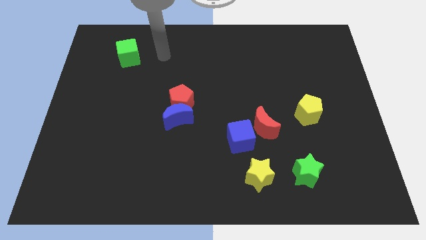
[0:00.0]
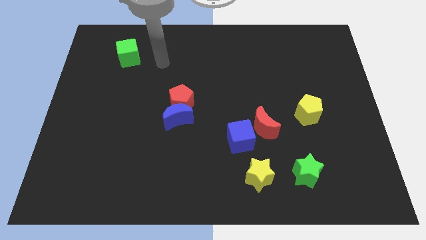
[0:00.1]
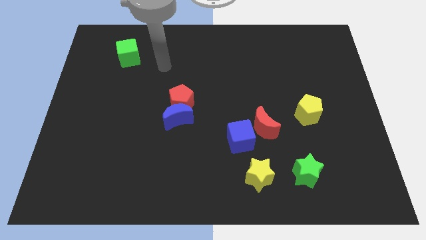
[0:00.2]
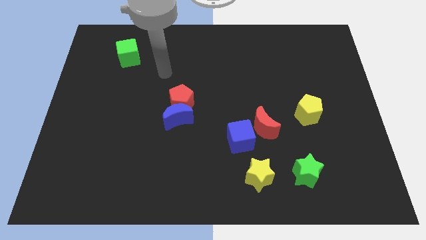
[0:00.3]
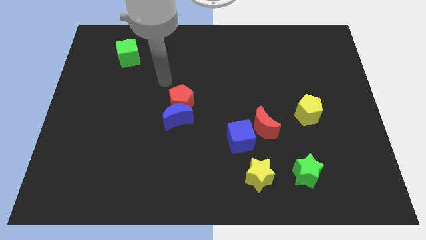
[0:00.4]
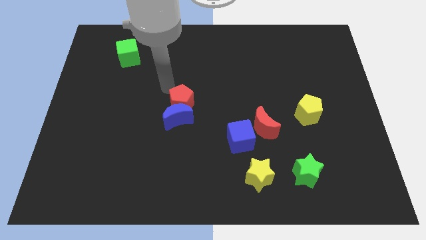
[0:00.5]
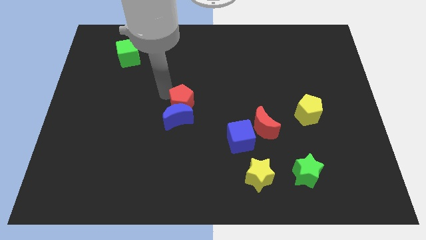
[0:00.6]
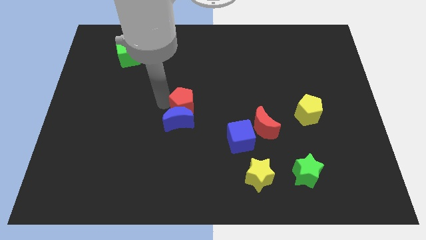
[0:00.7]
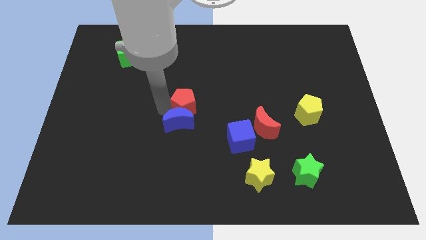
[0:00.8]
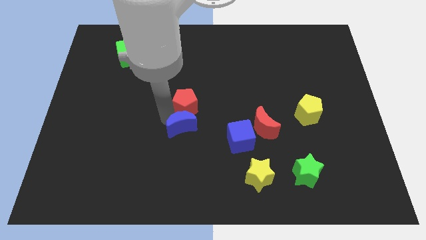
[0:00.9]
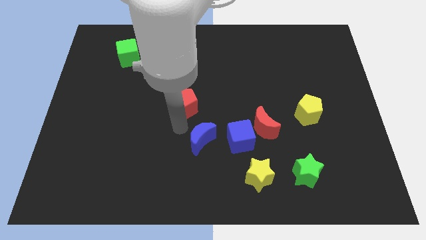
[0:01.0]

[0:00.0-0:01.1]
move the red pentagon away from the blue moon

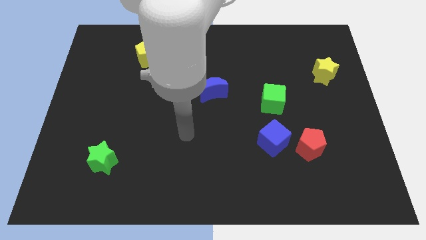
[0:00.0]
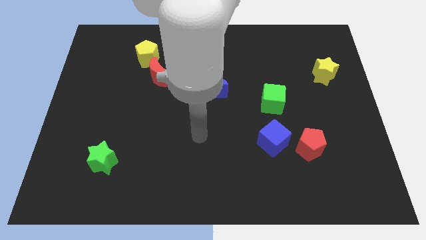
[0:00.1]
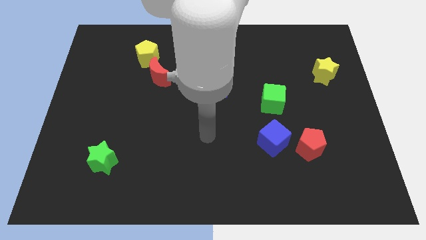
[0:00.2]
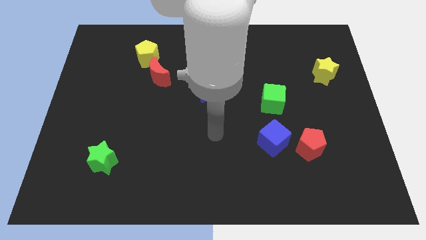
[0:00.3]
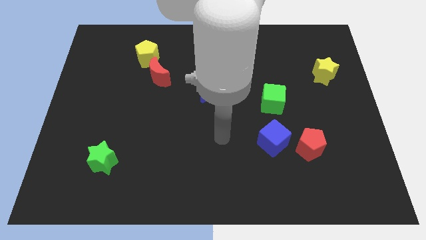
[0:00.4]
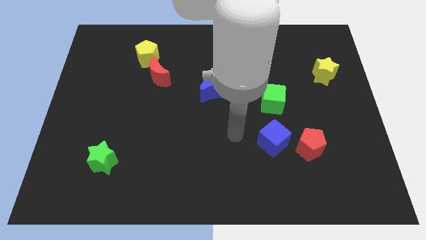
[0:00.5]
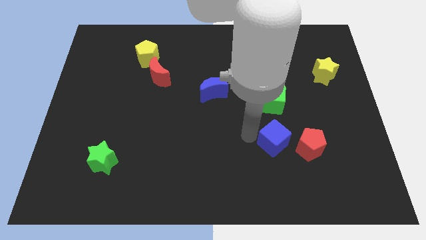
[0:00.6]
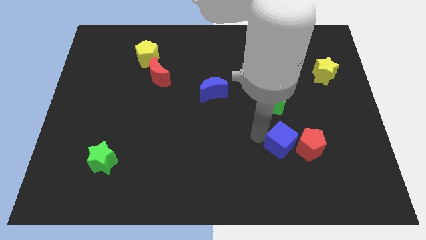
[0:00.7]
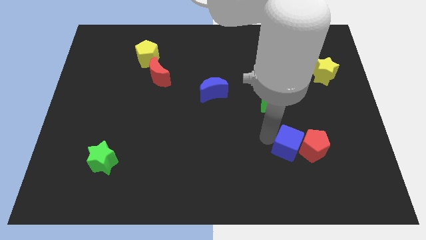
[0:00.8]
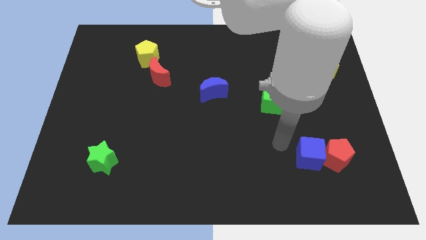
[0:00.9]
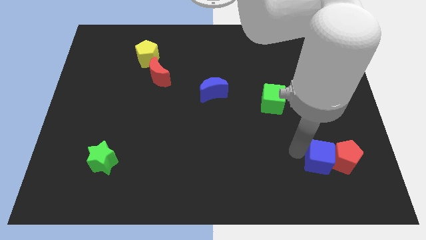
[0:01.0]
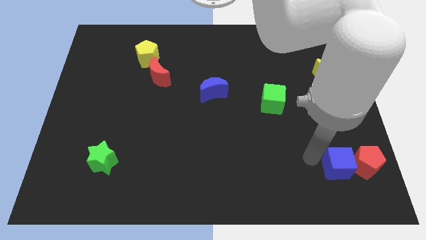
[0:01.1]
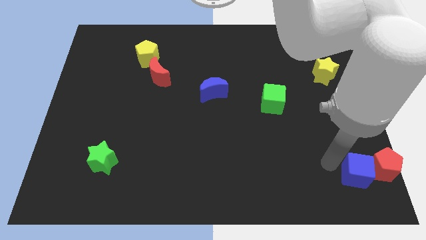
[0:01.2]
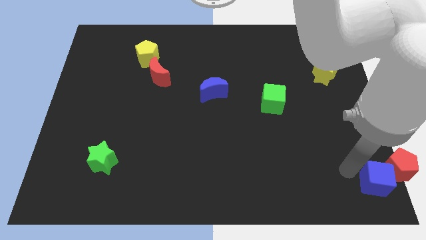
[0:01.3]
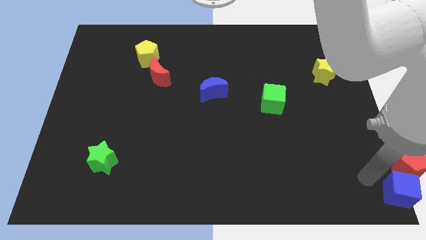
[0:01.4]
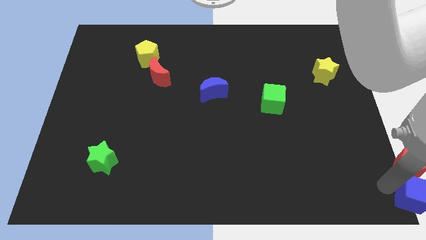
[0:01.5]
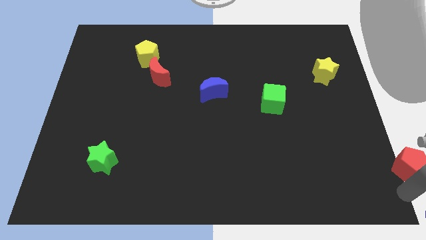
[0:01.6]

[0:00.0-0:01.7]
separate the red pentagon from the blue cube

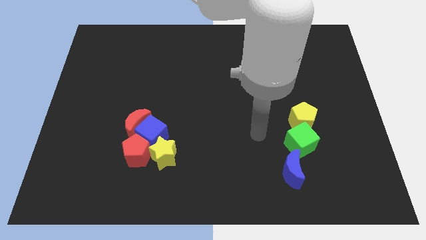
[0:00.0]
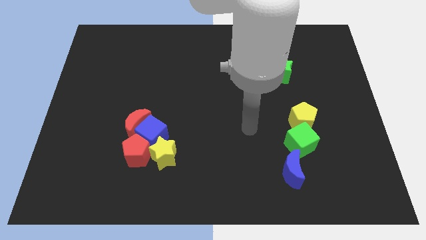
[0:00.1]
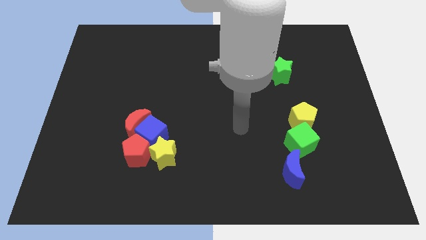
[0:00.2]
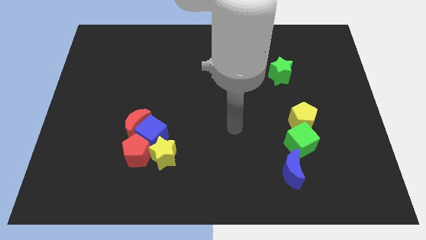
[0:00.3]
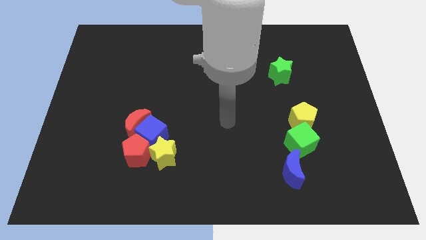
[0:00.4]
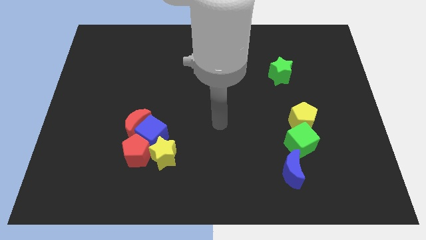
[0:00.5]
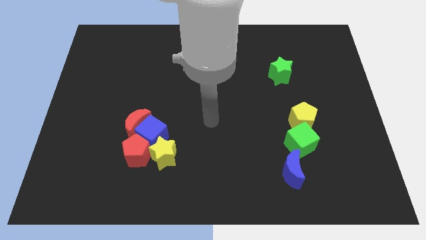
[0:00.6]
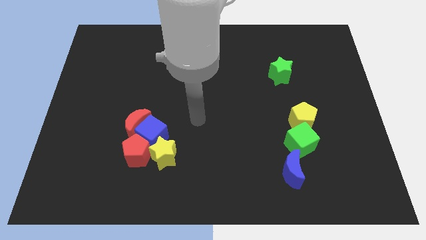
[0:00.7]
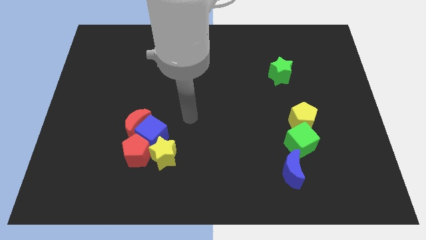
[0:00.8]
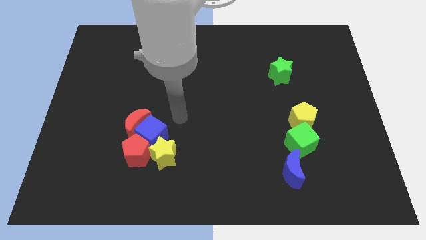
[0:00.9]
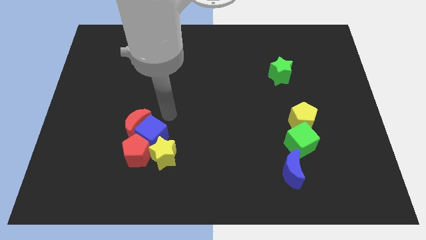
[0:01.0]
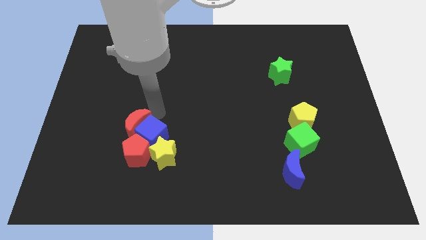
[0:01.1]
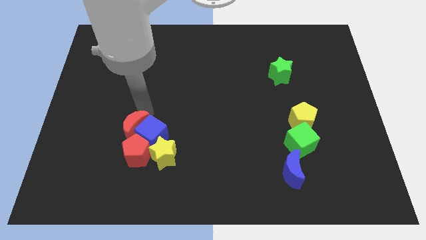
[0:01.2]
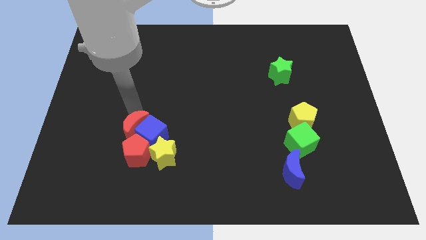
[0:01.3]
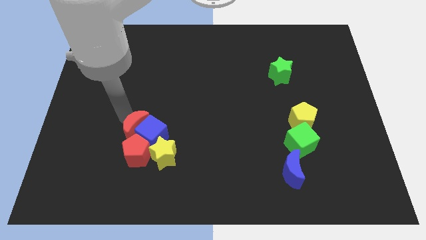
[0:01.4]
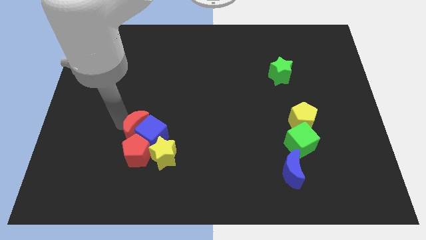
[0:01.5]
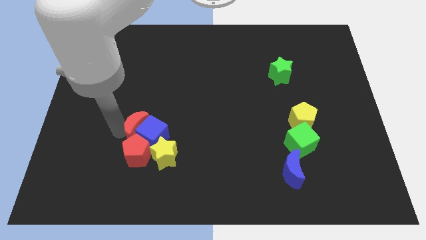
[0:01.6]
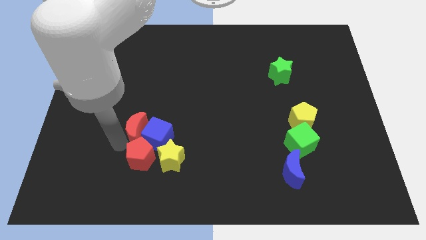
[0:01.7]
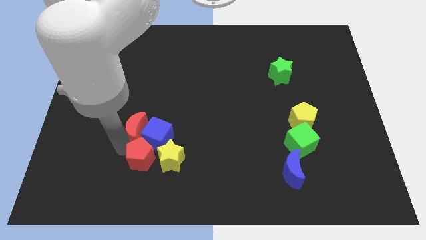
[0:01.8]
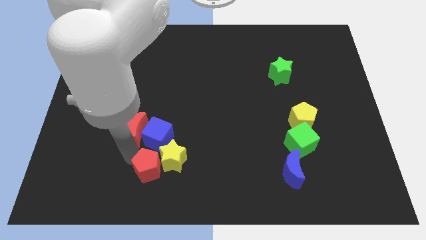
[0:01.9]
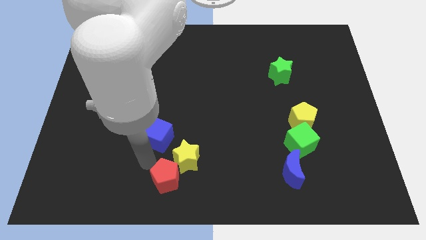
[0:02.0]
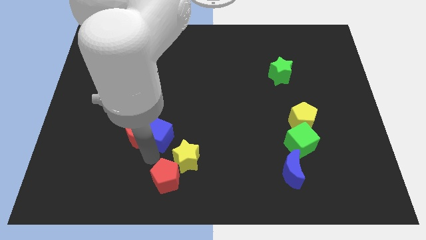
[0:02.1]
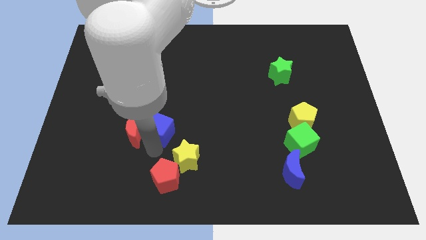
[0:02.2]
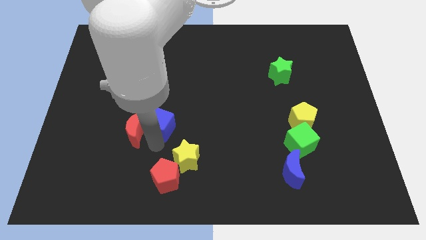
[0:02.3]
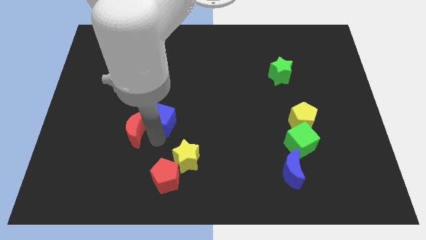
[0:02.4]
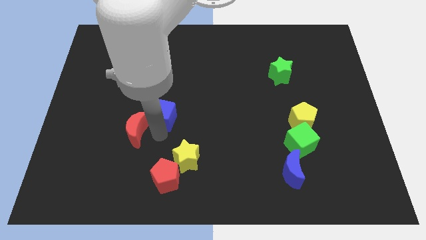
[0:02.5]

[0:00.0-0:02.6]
separate the blue cube from the clump

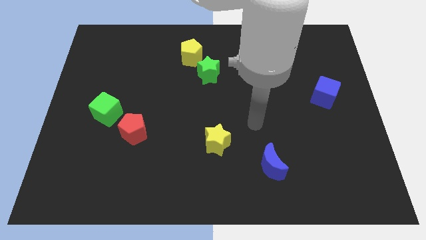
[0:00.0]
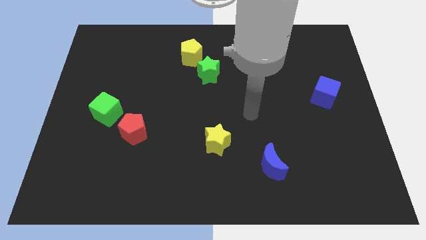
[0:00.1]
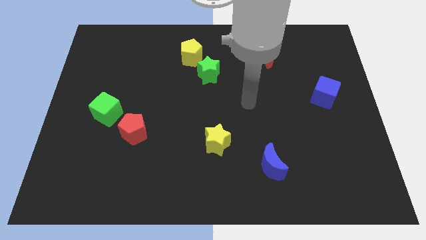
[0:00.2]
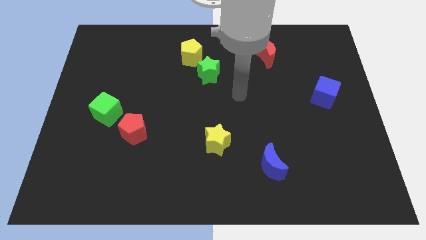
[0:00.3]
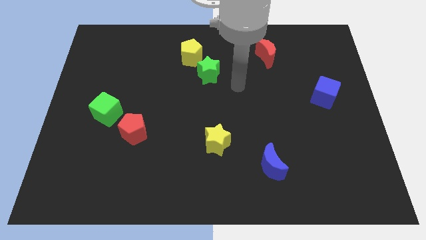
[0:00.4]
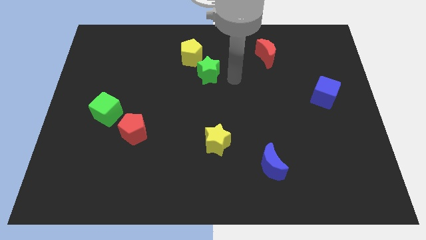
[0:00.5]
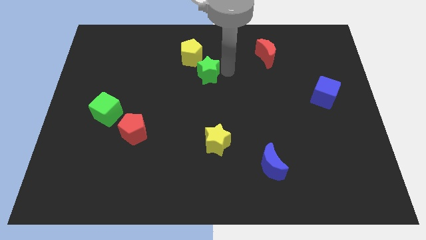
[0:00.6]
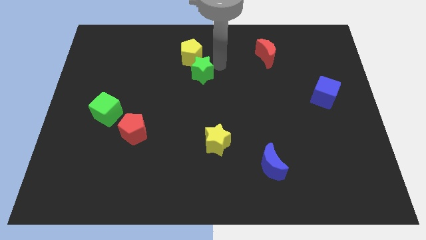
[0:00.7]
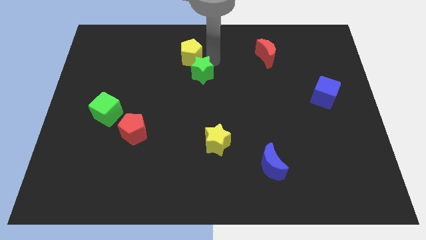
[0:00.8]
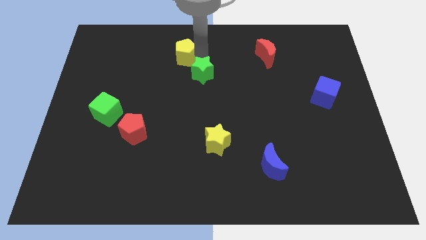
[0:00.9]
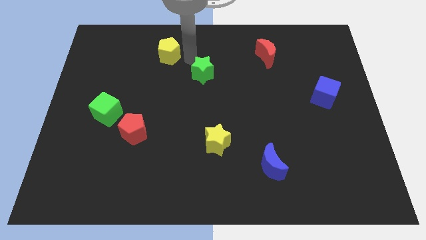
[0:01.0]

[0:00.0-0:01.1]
move the green star away from the yellow pentagon

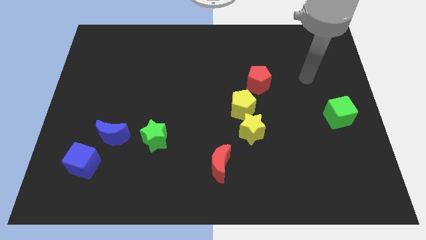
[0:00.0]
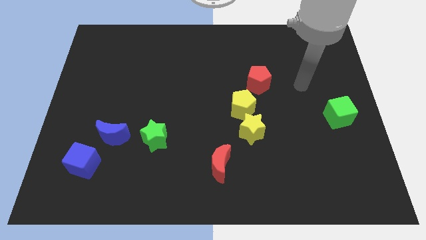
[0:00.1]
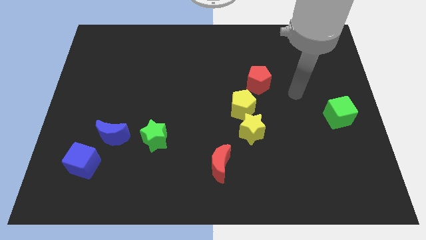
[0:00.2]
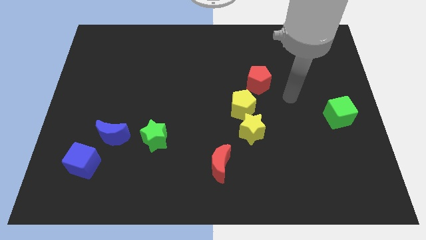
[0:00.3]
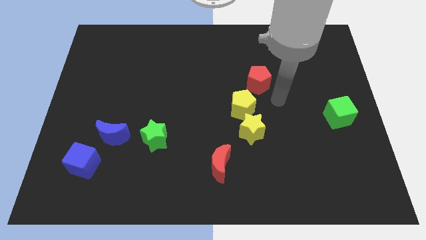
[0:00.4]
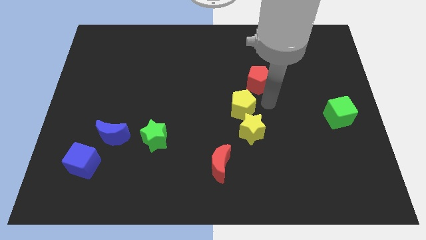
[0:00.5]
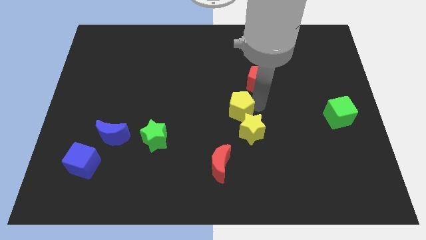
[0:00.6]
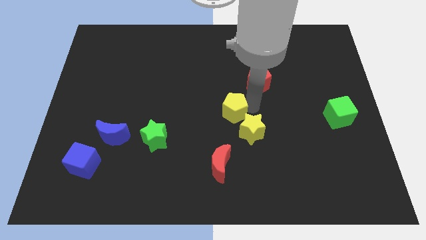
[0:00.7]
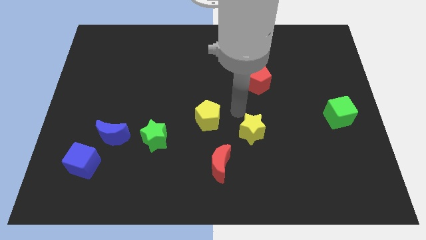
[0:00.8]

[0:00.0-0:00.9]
separate the yellow star from the yellow pentagon

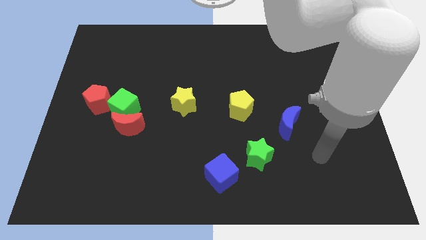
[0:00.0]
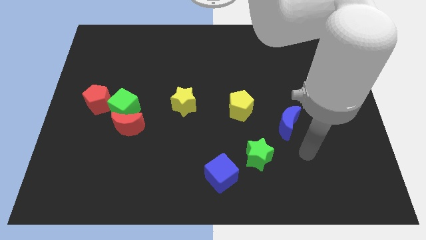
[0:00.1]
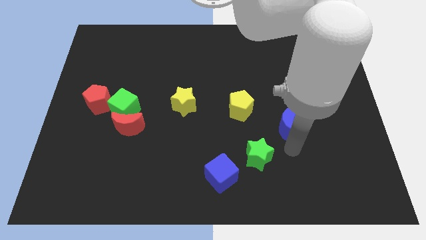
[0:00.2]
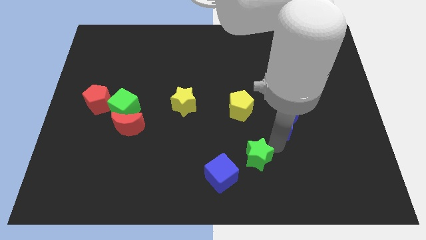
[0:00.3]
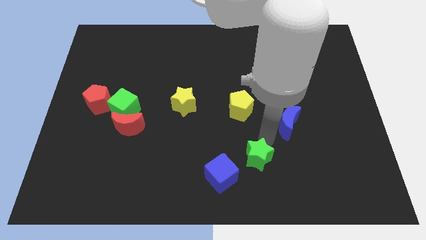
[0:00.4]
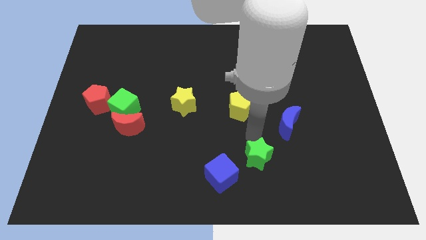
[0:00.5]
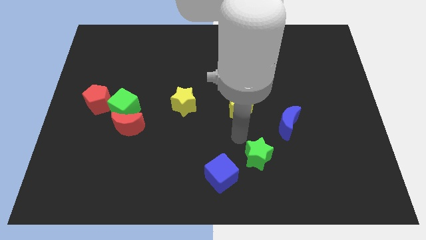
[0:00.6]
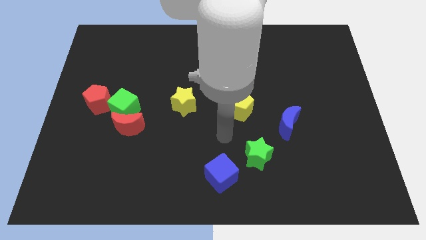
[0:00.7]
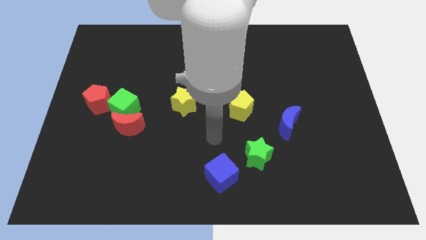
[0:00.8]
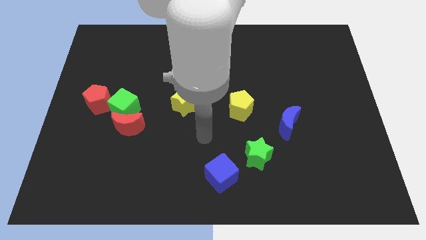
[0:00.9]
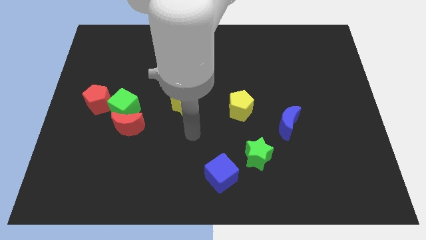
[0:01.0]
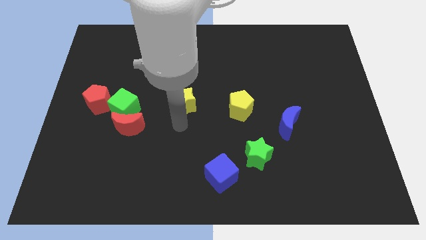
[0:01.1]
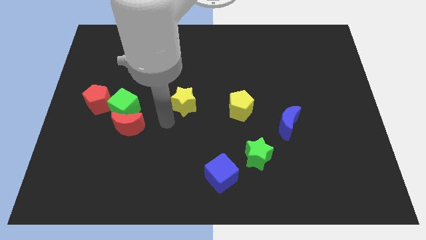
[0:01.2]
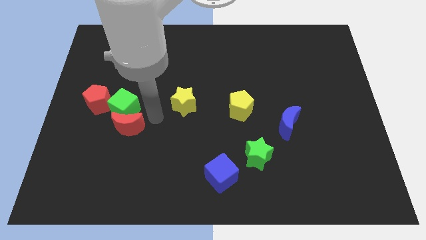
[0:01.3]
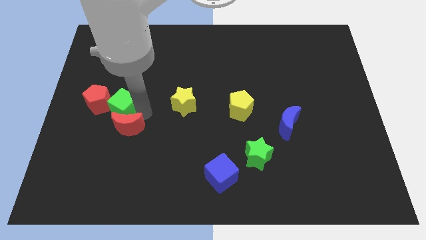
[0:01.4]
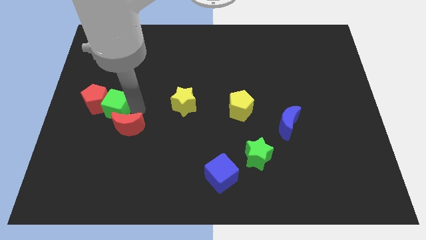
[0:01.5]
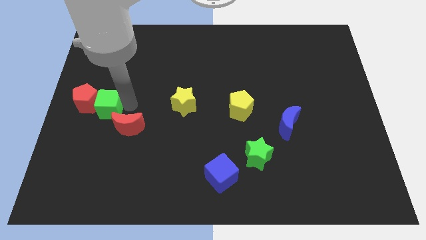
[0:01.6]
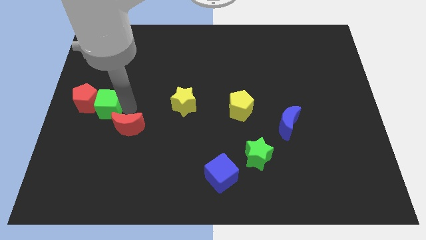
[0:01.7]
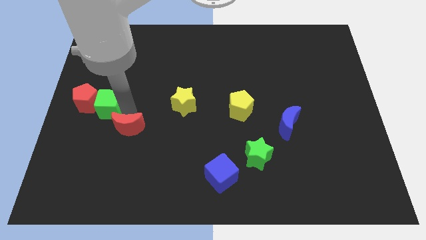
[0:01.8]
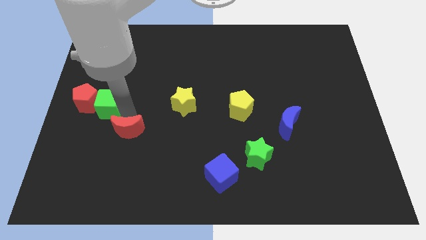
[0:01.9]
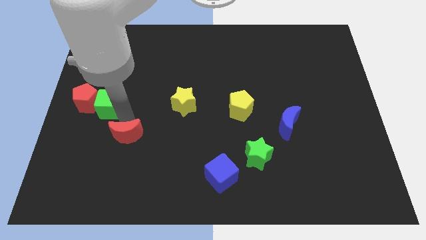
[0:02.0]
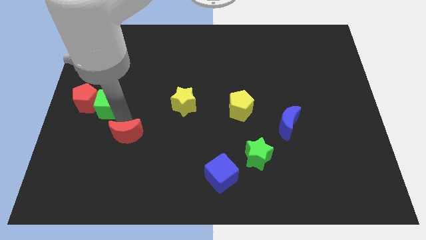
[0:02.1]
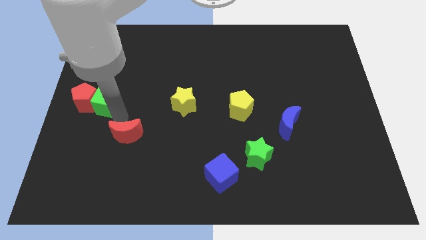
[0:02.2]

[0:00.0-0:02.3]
separate the red moon from the green cube
